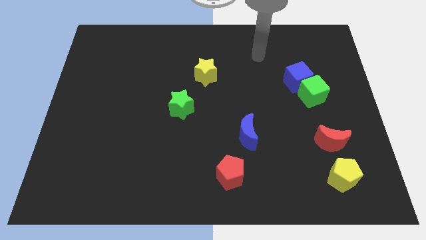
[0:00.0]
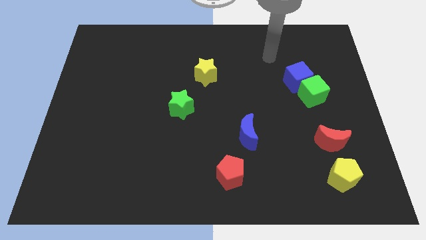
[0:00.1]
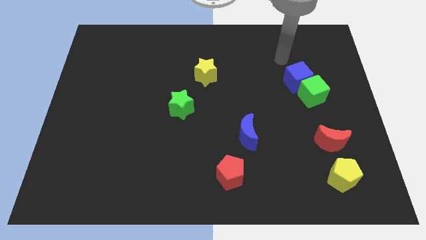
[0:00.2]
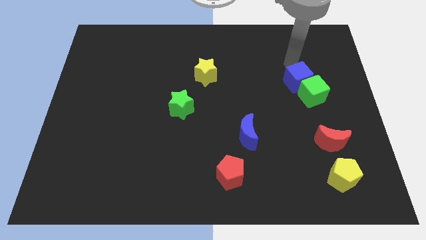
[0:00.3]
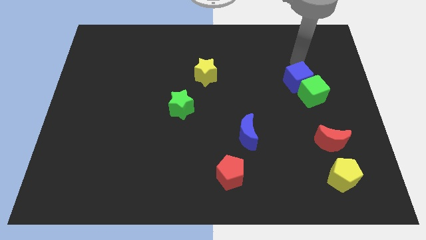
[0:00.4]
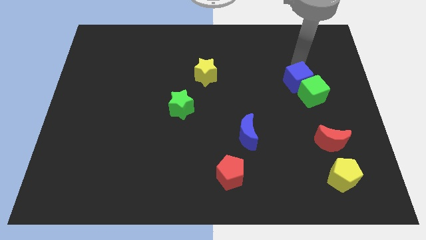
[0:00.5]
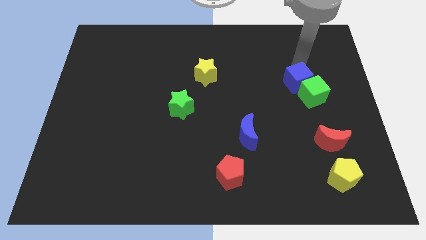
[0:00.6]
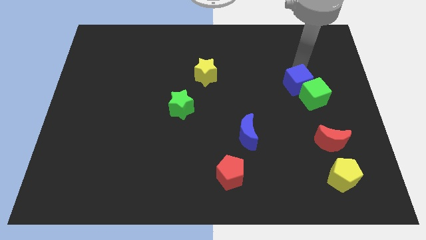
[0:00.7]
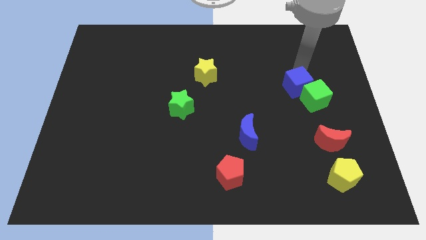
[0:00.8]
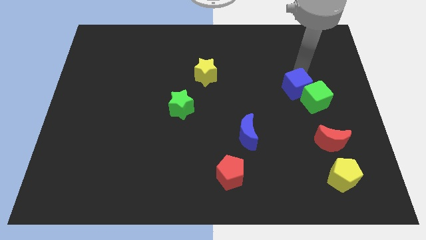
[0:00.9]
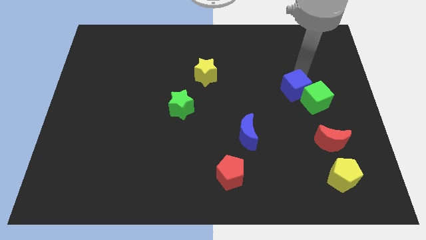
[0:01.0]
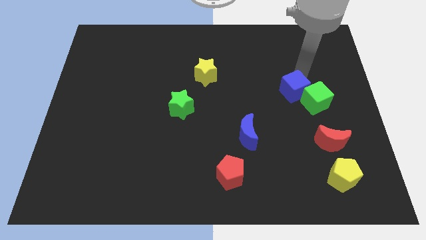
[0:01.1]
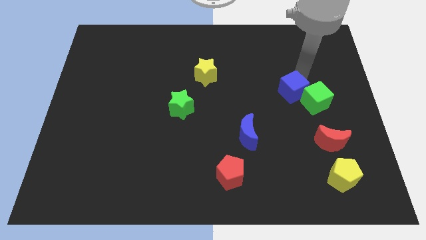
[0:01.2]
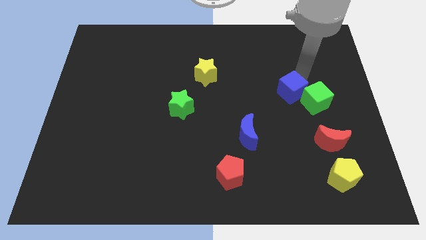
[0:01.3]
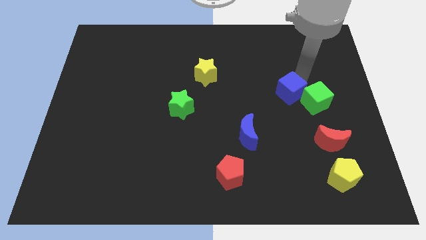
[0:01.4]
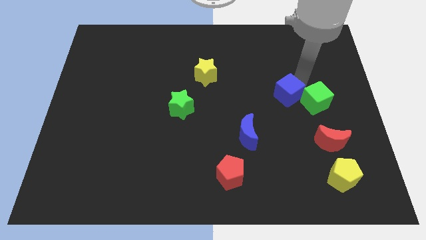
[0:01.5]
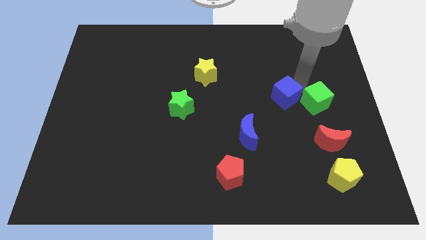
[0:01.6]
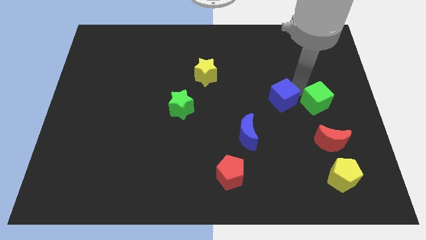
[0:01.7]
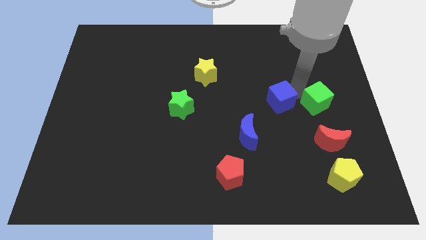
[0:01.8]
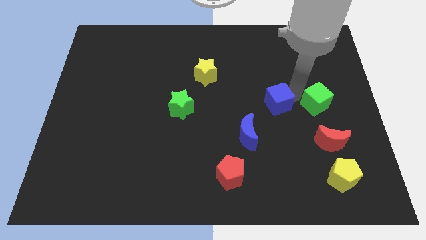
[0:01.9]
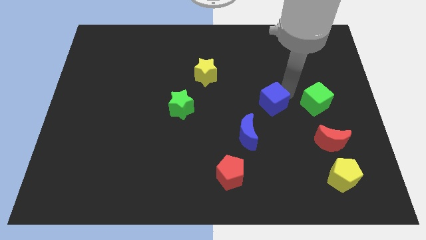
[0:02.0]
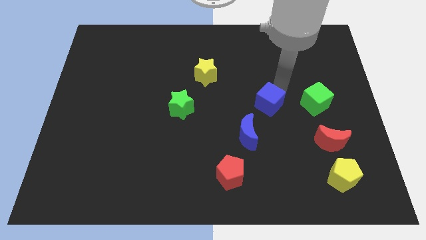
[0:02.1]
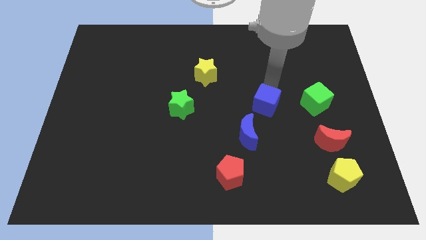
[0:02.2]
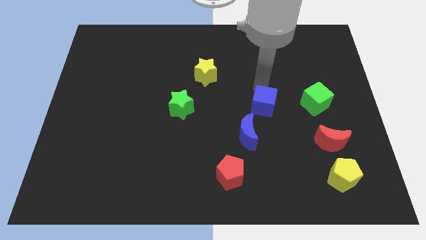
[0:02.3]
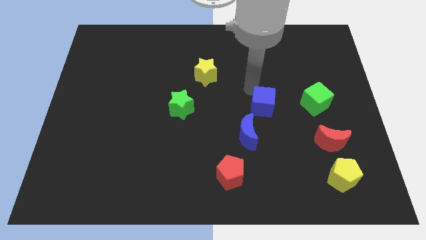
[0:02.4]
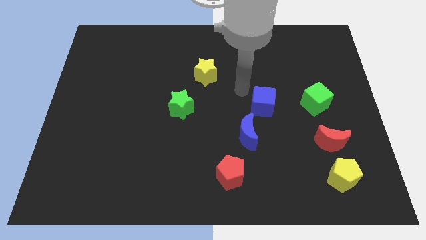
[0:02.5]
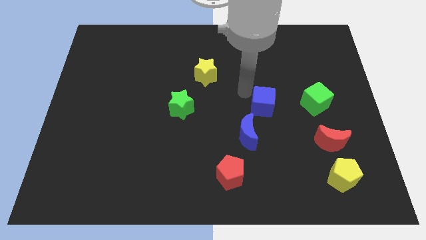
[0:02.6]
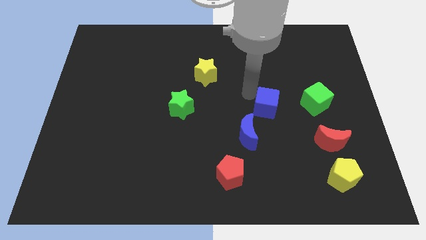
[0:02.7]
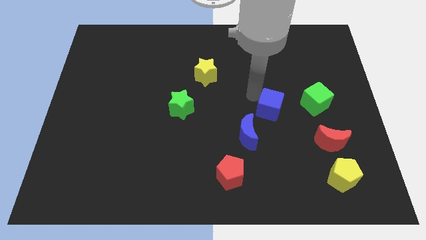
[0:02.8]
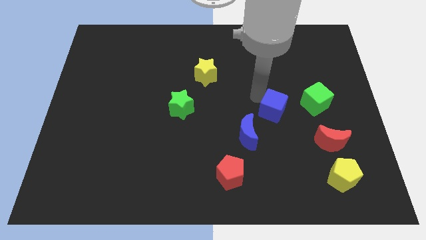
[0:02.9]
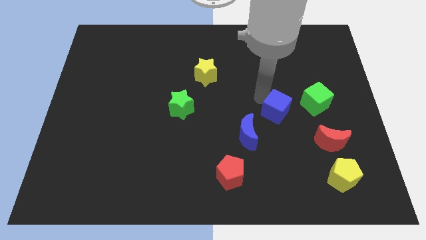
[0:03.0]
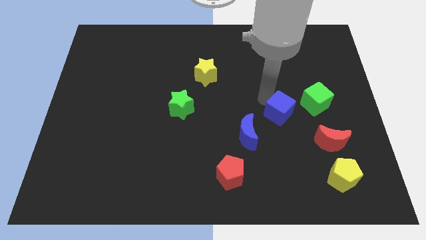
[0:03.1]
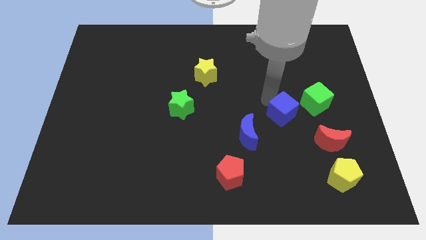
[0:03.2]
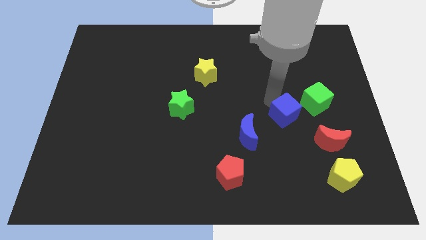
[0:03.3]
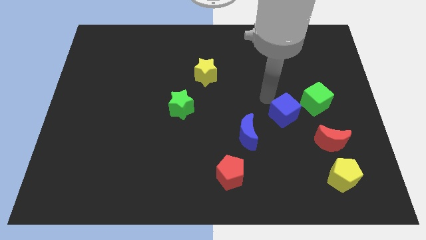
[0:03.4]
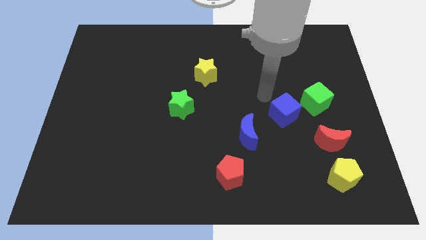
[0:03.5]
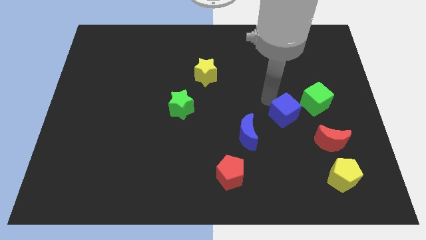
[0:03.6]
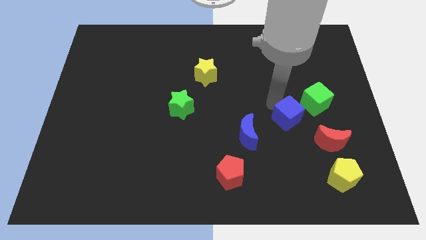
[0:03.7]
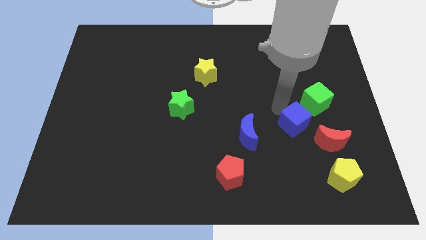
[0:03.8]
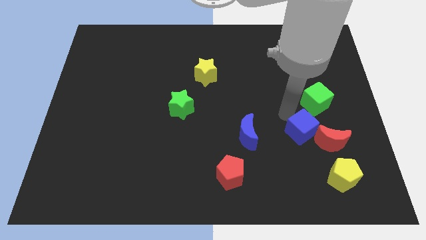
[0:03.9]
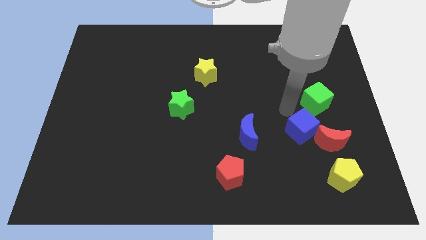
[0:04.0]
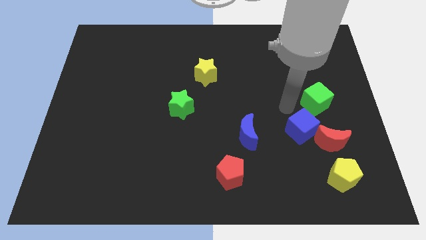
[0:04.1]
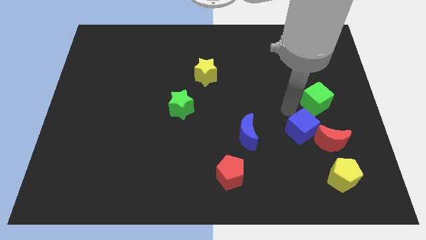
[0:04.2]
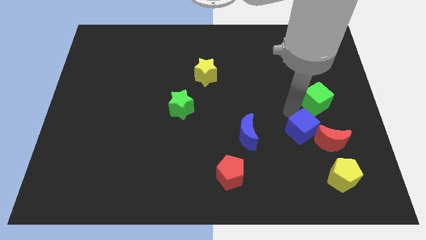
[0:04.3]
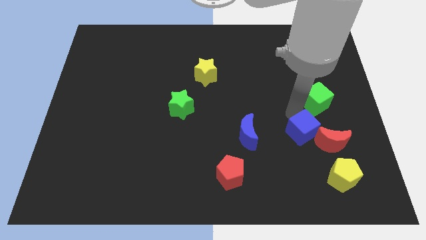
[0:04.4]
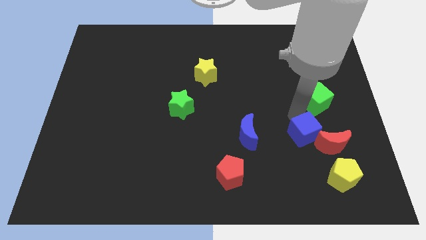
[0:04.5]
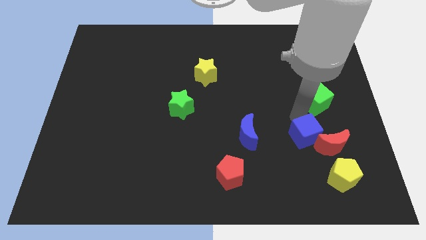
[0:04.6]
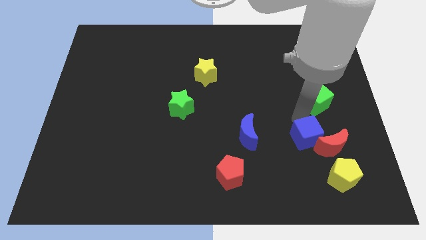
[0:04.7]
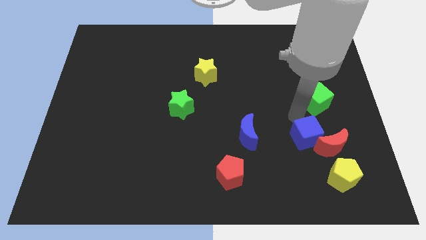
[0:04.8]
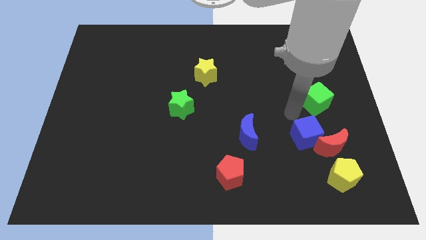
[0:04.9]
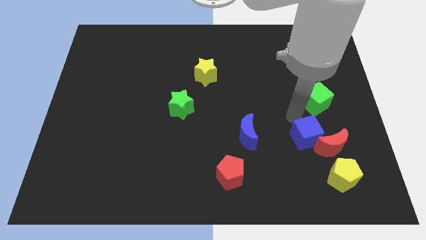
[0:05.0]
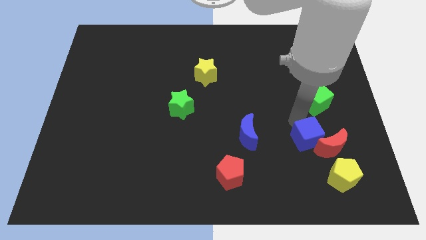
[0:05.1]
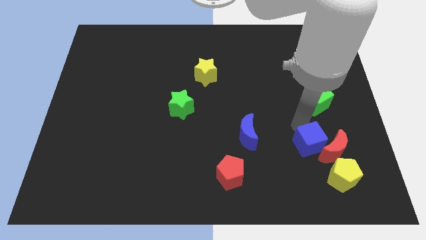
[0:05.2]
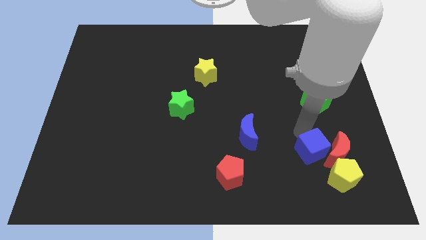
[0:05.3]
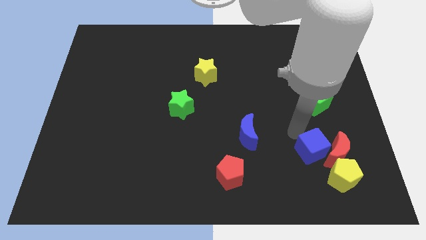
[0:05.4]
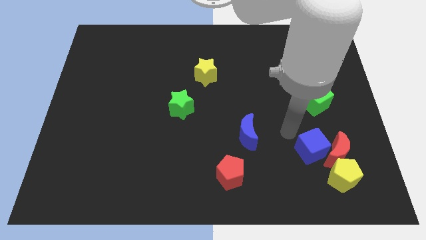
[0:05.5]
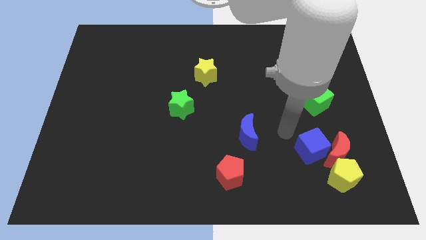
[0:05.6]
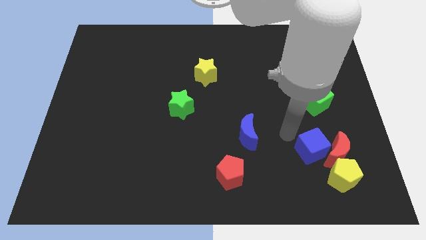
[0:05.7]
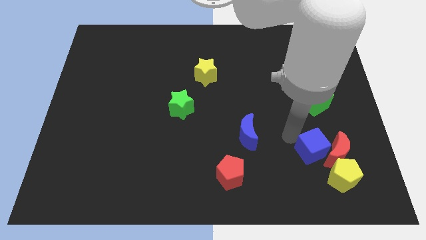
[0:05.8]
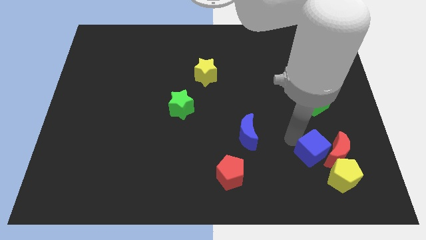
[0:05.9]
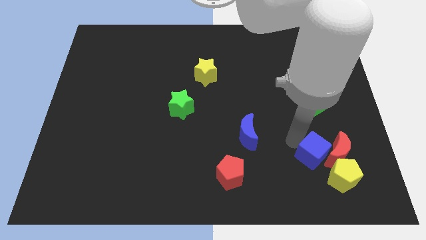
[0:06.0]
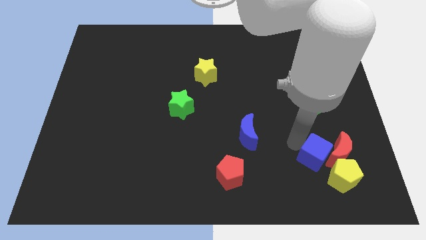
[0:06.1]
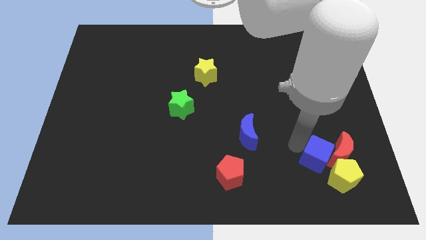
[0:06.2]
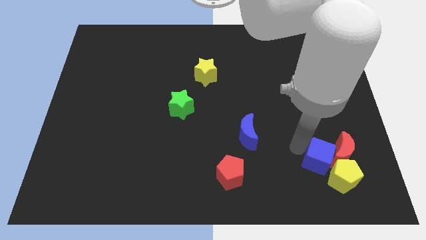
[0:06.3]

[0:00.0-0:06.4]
put the blue cube next to the yellow pentagon

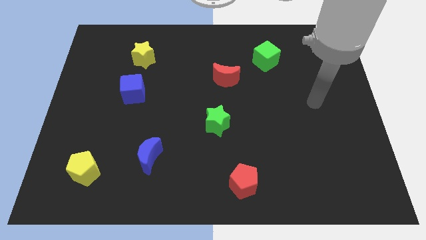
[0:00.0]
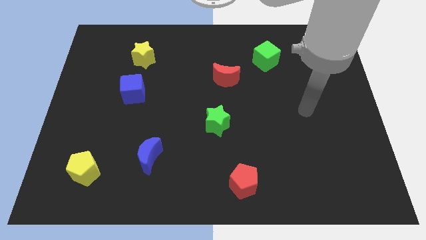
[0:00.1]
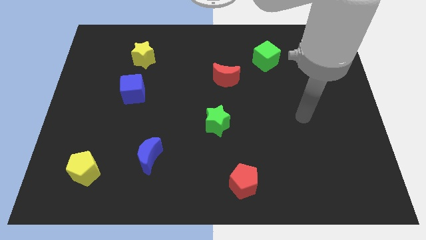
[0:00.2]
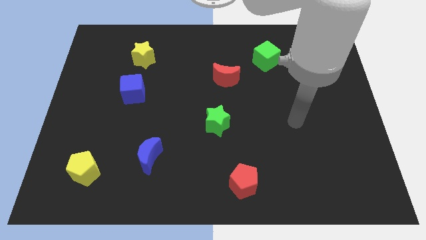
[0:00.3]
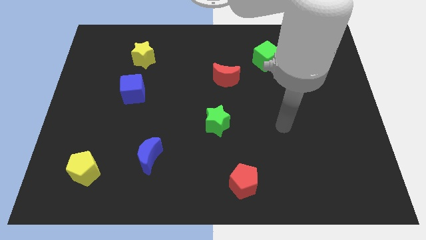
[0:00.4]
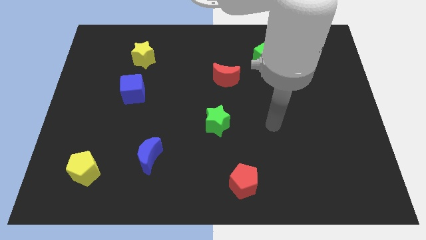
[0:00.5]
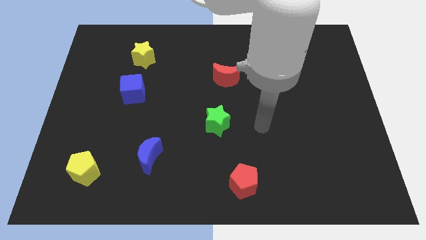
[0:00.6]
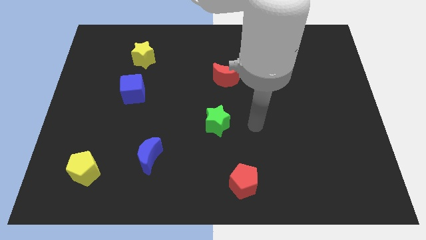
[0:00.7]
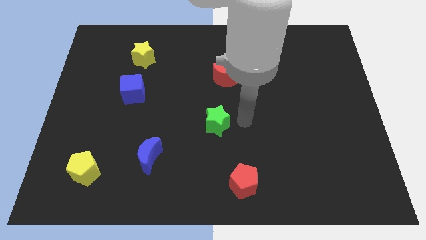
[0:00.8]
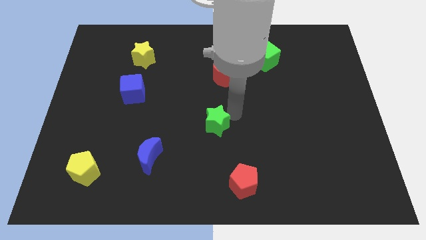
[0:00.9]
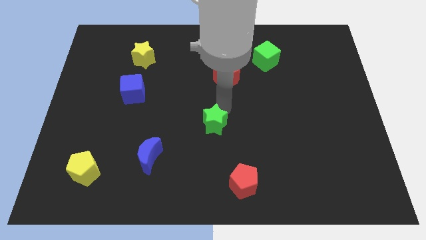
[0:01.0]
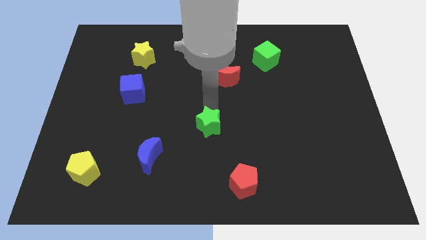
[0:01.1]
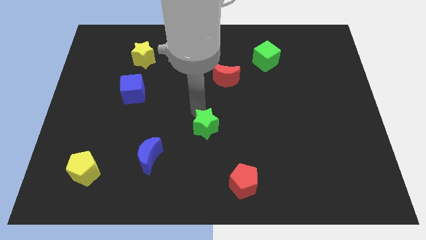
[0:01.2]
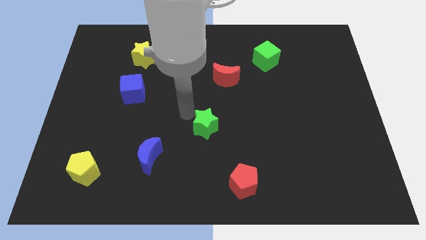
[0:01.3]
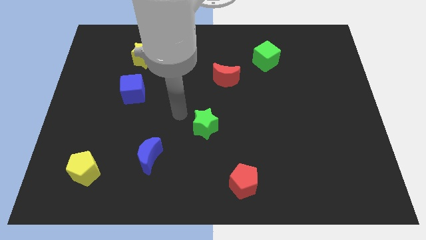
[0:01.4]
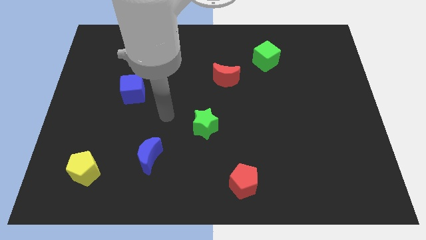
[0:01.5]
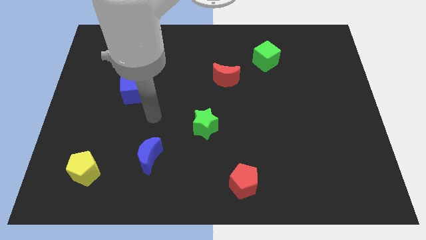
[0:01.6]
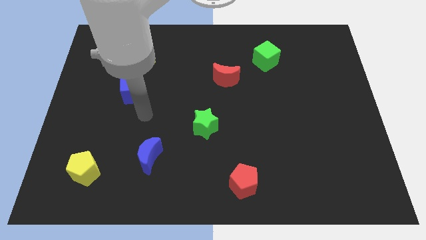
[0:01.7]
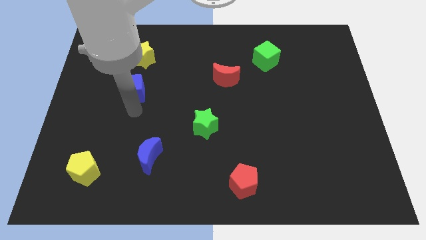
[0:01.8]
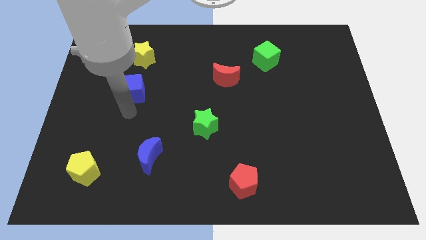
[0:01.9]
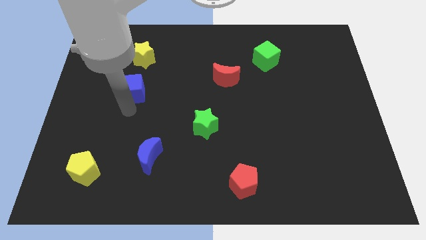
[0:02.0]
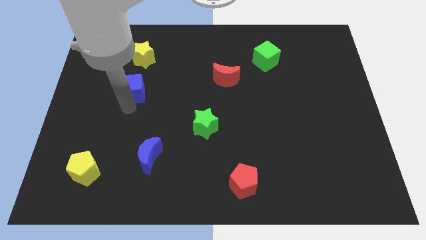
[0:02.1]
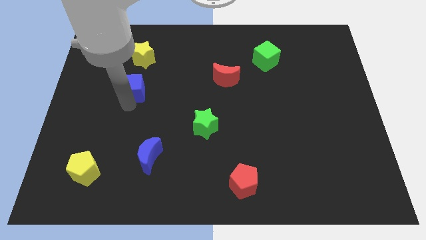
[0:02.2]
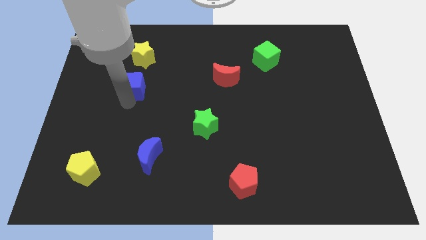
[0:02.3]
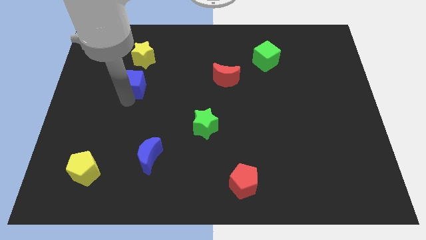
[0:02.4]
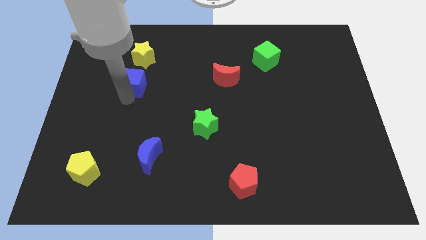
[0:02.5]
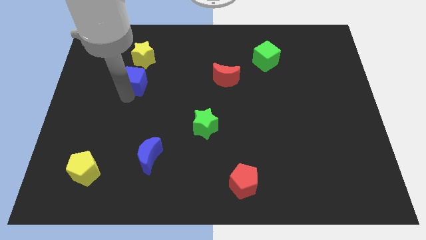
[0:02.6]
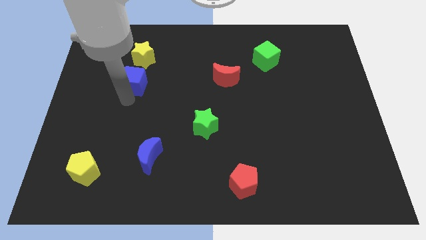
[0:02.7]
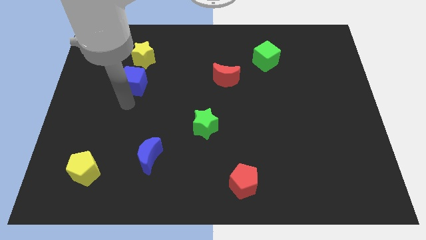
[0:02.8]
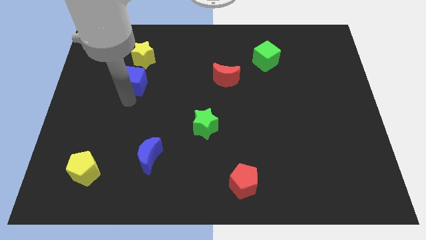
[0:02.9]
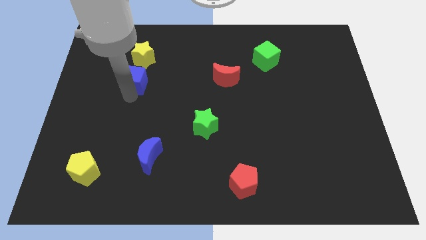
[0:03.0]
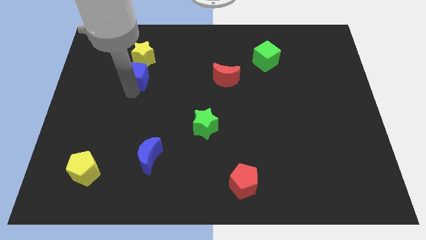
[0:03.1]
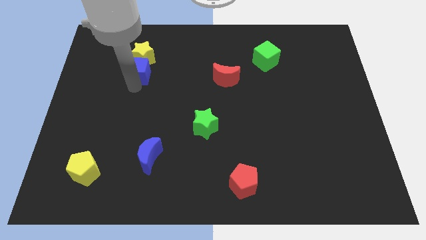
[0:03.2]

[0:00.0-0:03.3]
move the blue cube towards the yellow star
